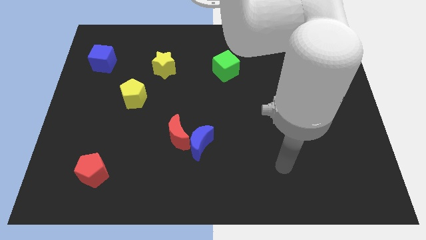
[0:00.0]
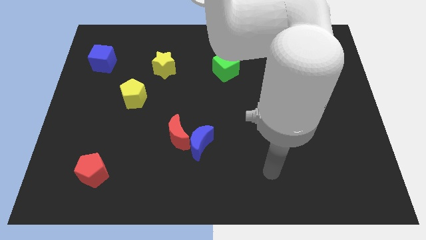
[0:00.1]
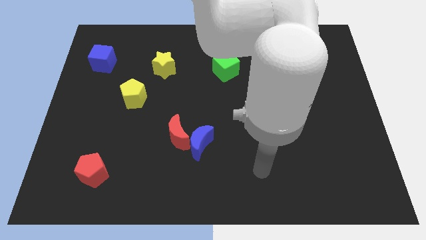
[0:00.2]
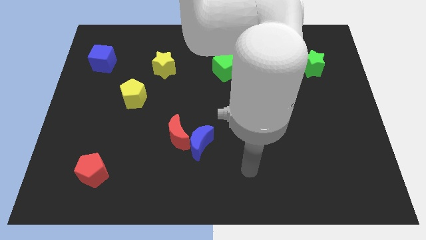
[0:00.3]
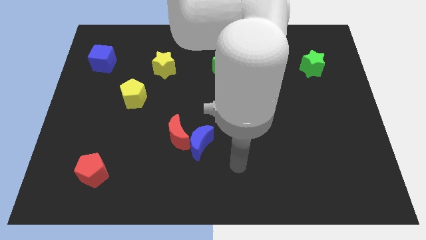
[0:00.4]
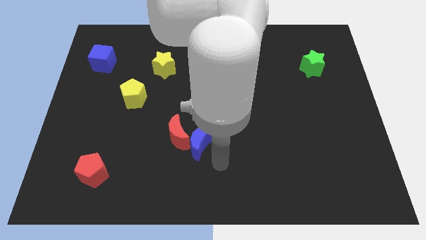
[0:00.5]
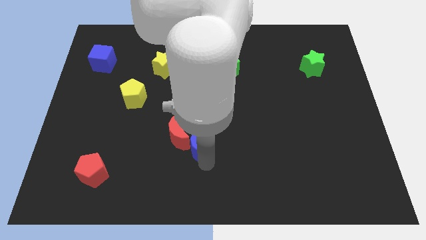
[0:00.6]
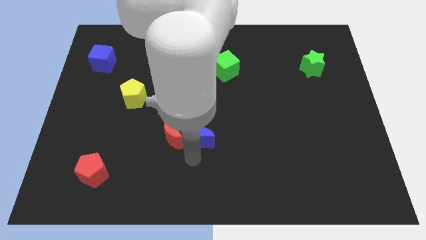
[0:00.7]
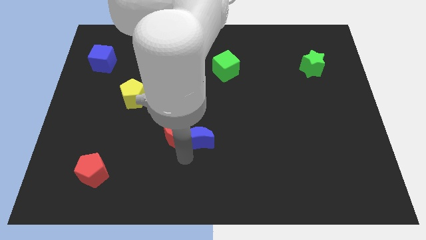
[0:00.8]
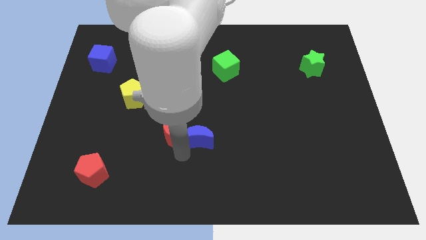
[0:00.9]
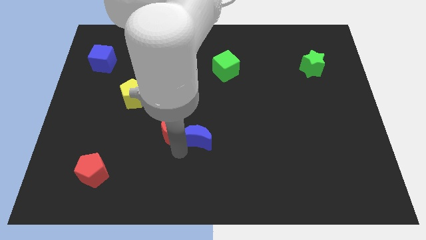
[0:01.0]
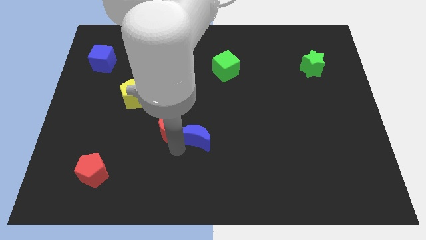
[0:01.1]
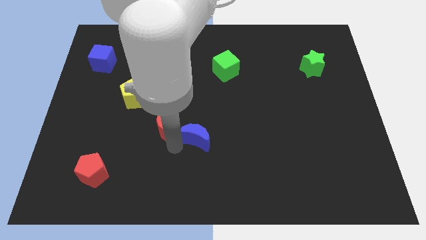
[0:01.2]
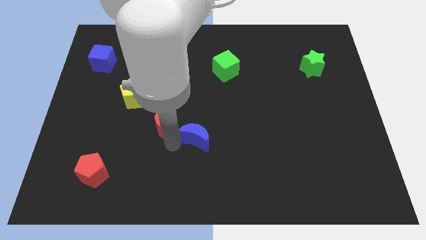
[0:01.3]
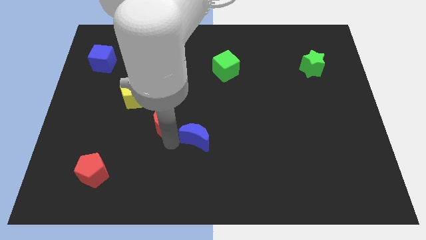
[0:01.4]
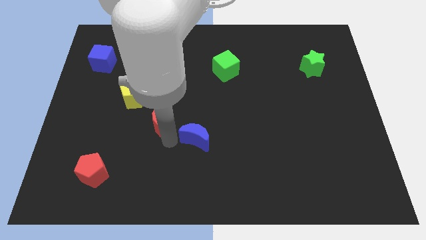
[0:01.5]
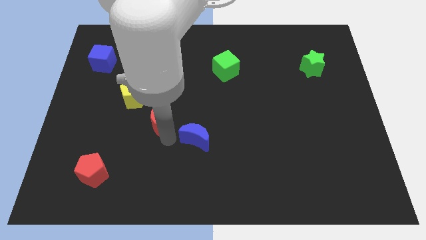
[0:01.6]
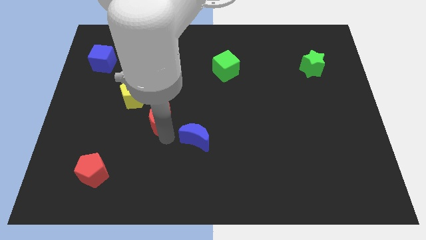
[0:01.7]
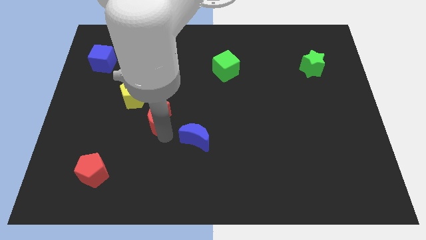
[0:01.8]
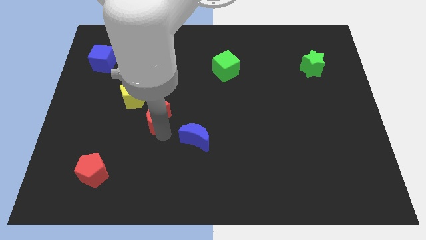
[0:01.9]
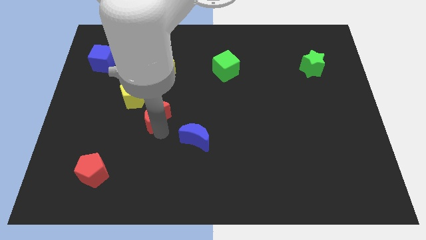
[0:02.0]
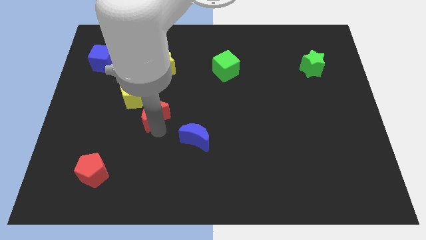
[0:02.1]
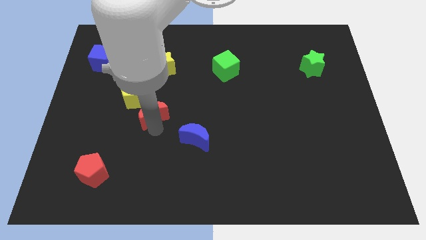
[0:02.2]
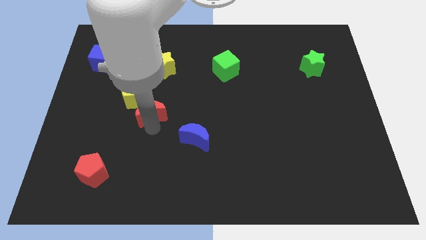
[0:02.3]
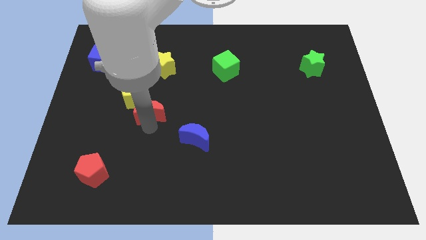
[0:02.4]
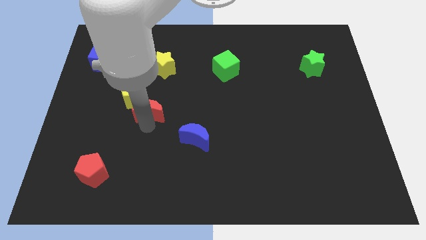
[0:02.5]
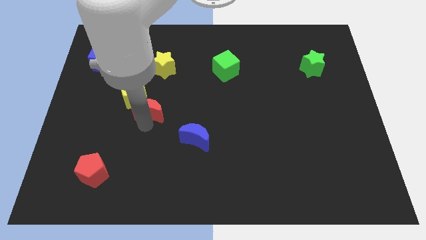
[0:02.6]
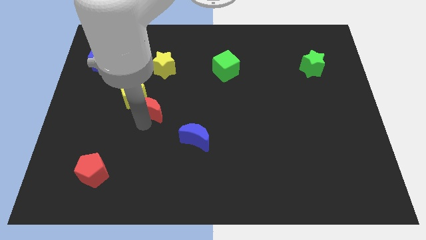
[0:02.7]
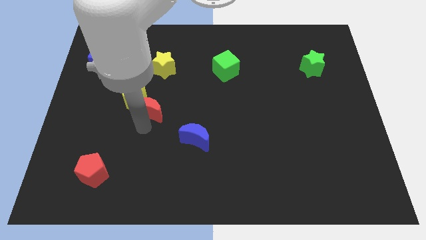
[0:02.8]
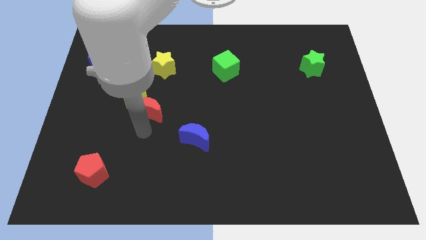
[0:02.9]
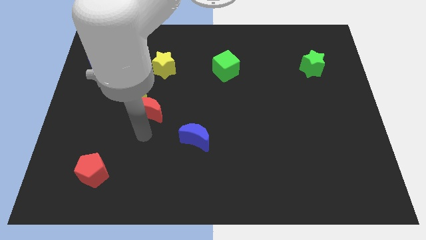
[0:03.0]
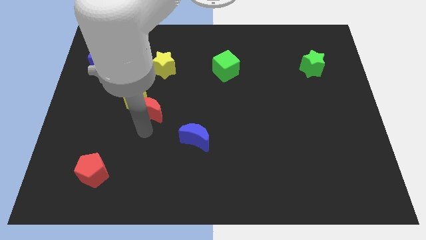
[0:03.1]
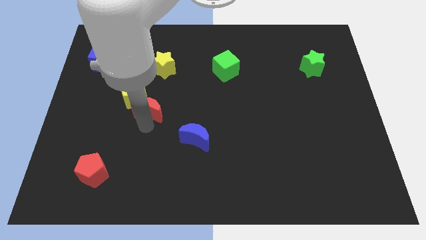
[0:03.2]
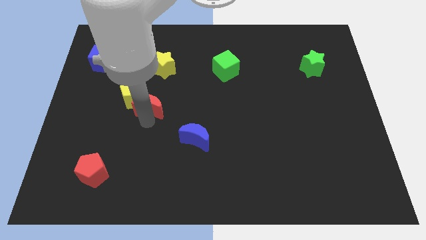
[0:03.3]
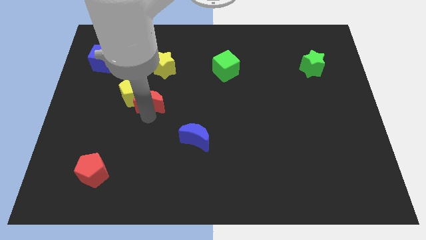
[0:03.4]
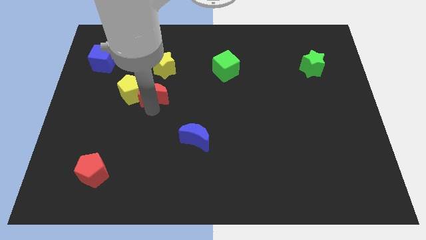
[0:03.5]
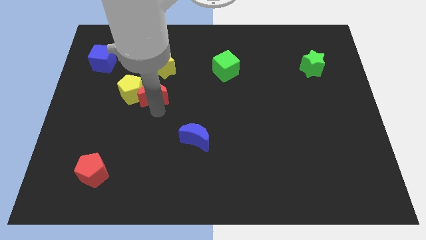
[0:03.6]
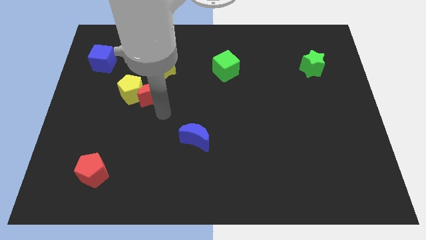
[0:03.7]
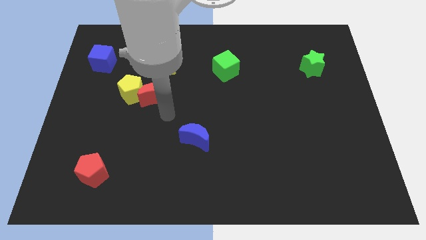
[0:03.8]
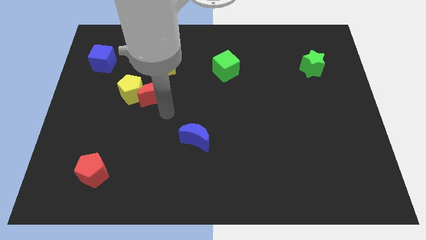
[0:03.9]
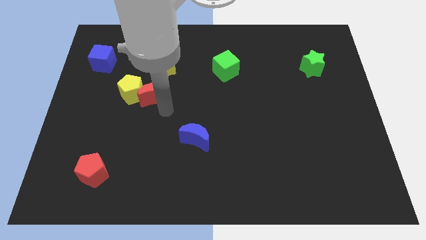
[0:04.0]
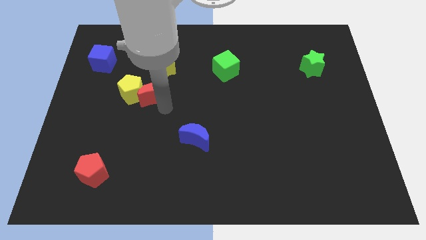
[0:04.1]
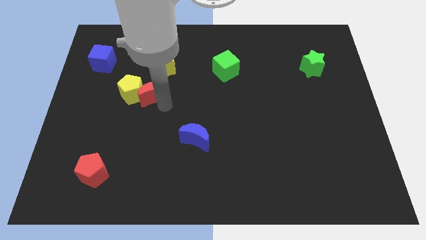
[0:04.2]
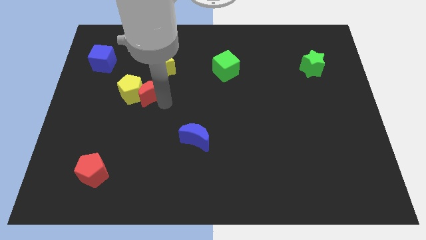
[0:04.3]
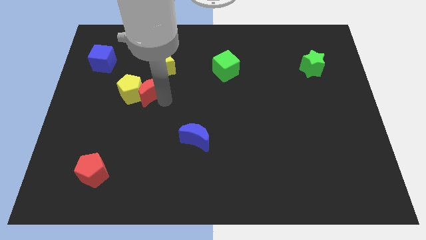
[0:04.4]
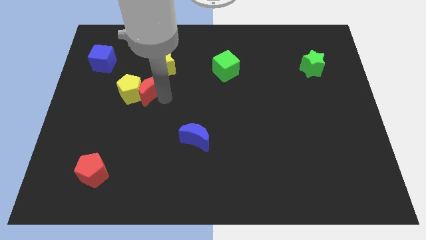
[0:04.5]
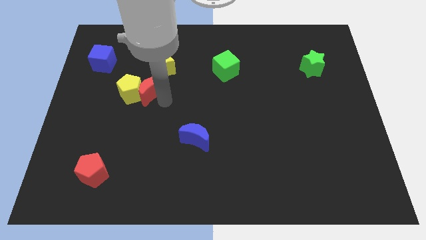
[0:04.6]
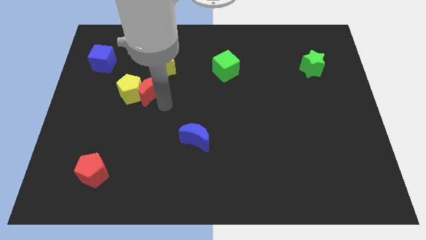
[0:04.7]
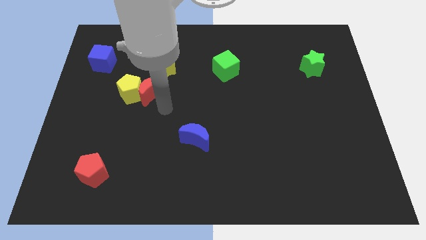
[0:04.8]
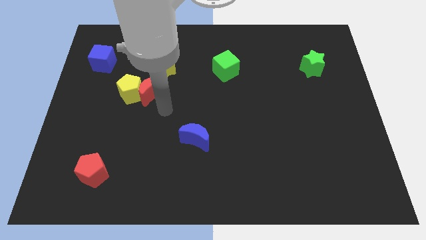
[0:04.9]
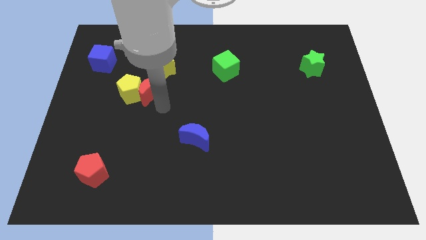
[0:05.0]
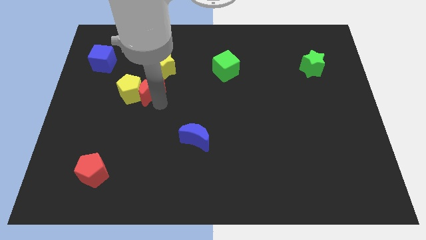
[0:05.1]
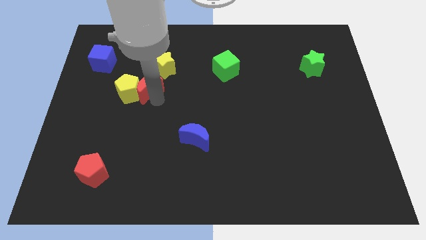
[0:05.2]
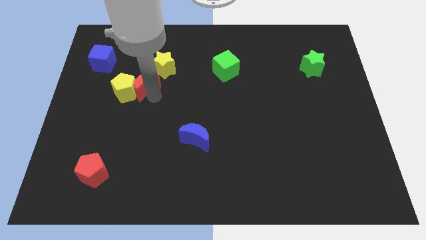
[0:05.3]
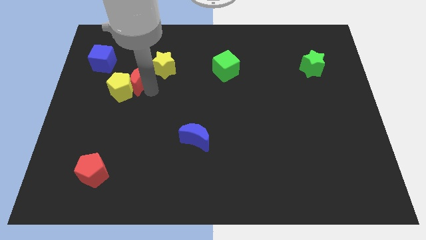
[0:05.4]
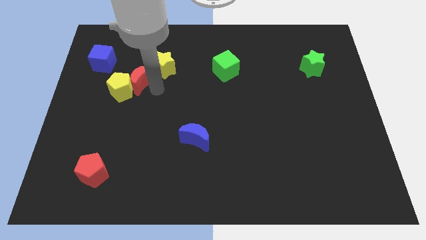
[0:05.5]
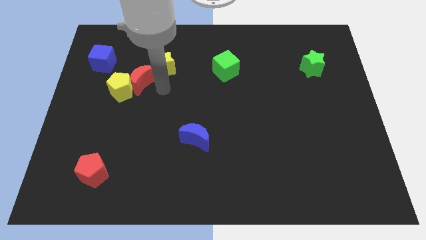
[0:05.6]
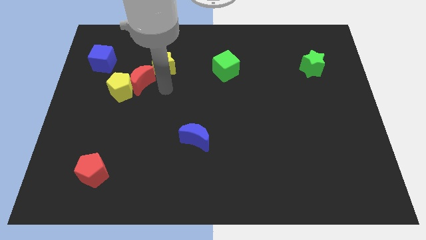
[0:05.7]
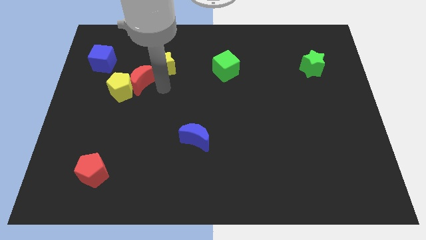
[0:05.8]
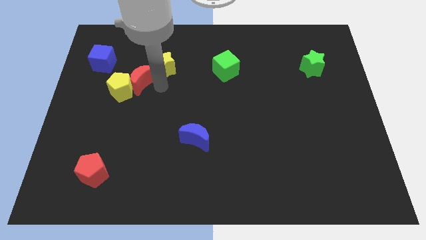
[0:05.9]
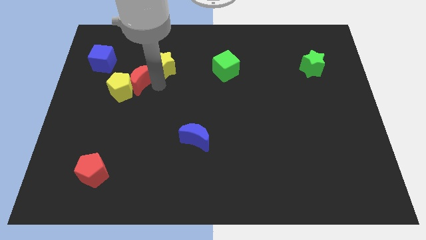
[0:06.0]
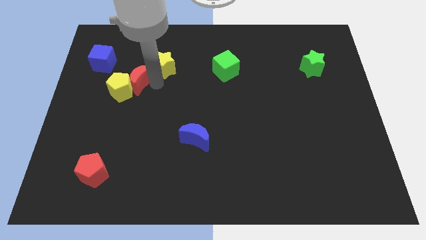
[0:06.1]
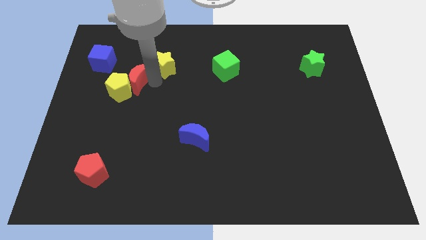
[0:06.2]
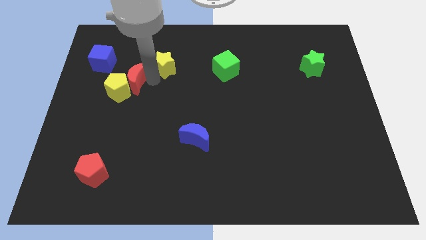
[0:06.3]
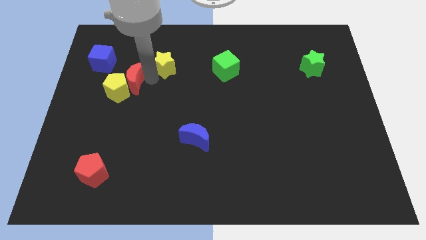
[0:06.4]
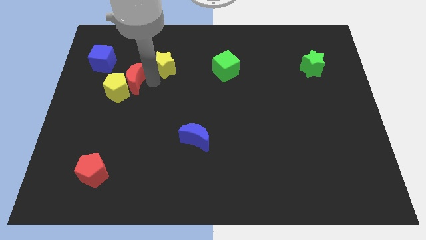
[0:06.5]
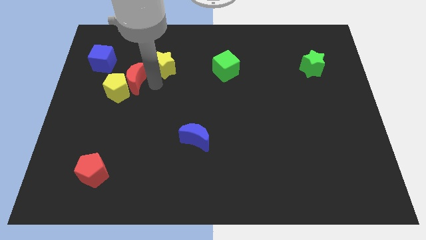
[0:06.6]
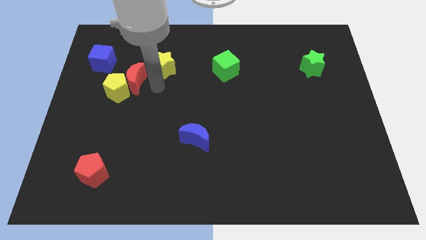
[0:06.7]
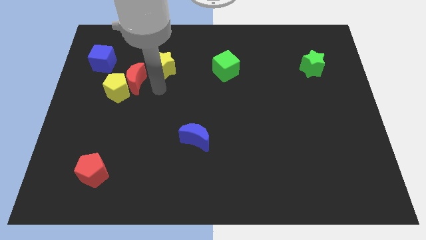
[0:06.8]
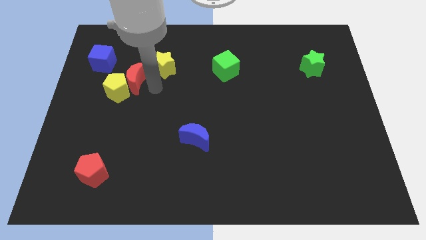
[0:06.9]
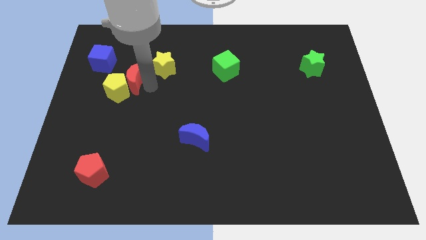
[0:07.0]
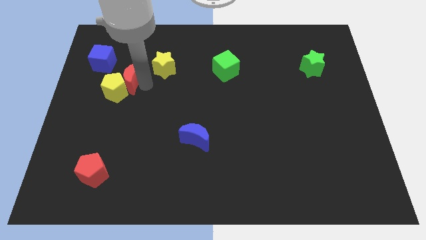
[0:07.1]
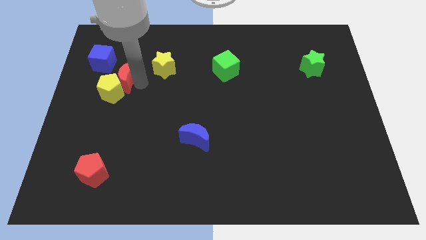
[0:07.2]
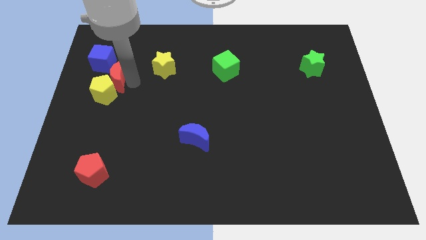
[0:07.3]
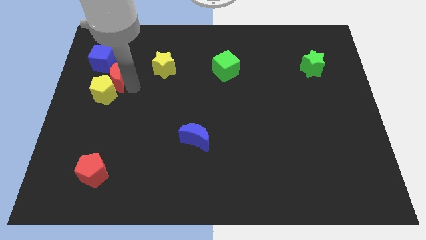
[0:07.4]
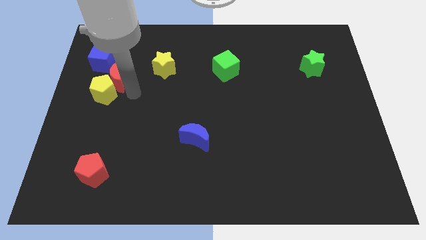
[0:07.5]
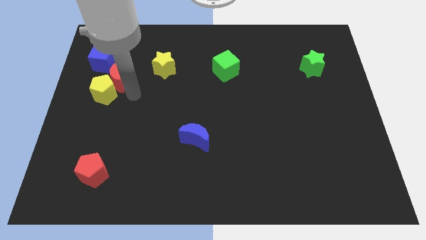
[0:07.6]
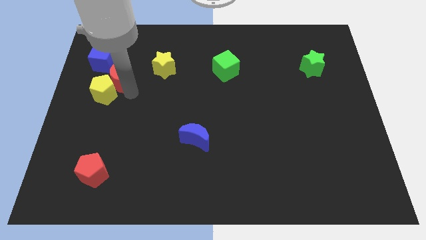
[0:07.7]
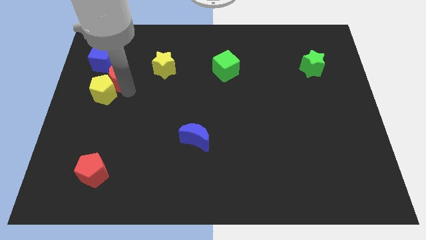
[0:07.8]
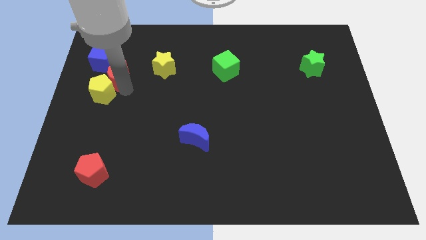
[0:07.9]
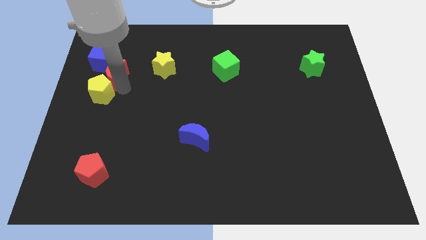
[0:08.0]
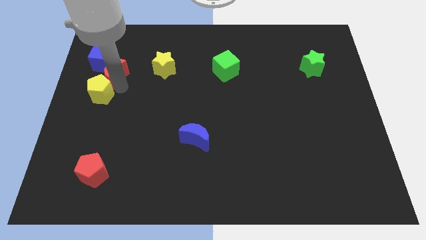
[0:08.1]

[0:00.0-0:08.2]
push the red moon to the blue cube
